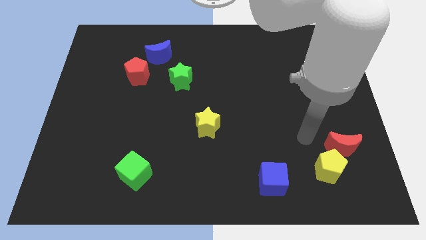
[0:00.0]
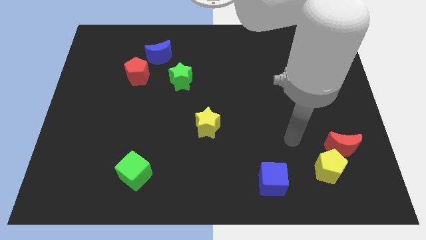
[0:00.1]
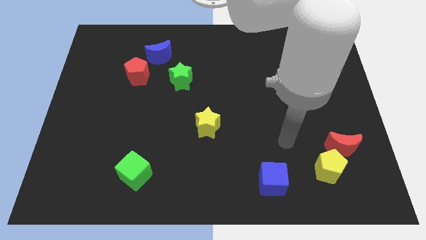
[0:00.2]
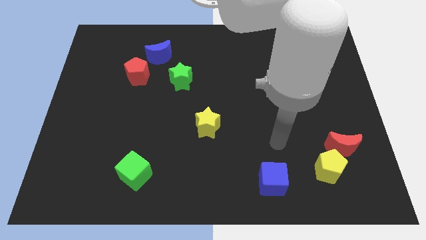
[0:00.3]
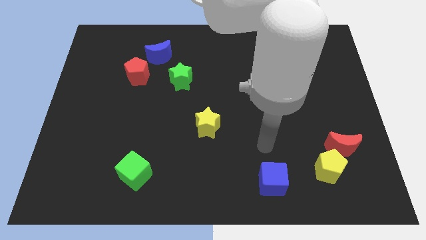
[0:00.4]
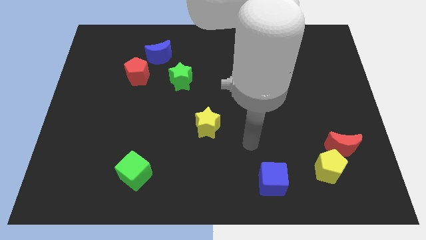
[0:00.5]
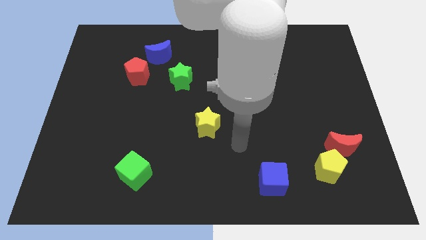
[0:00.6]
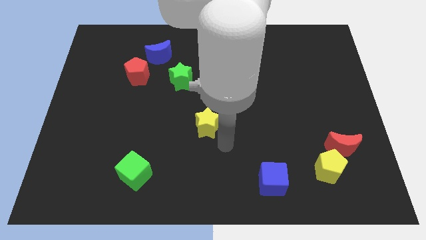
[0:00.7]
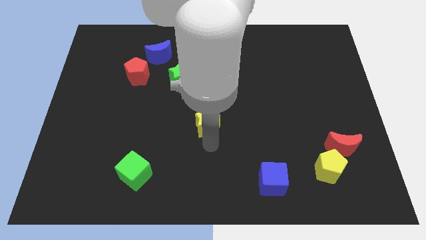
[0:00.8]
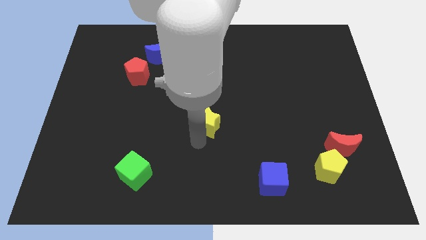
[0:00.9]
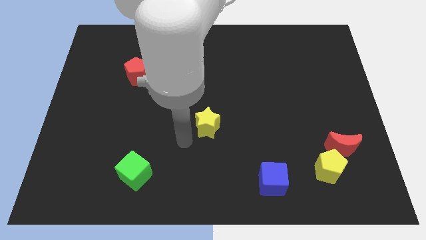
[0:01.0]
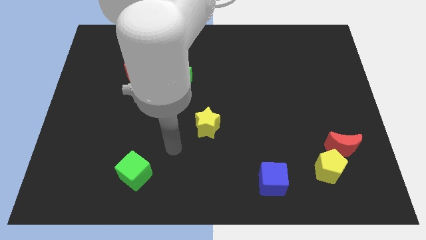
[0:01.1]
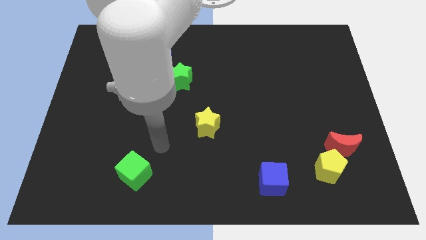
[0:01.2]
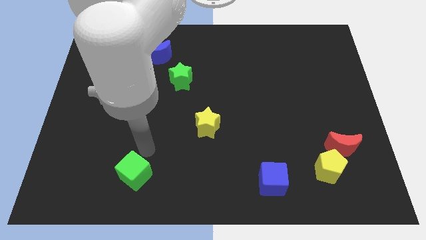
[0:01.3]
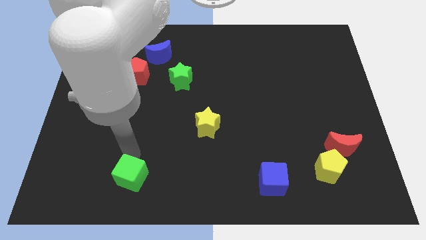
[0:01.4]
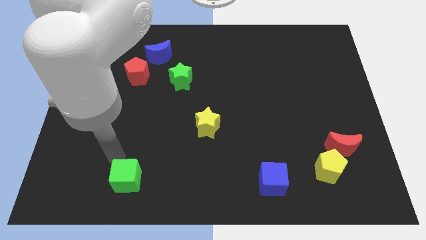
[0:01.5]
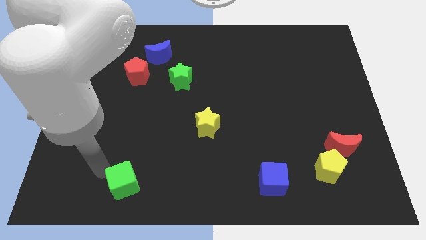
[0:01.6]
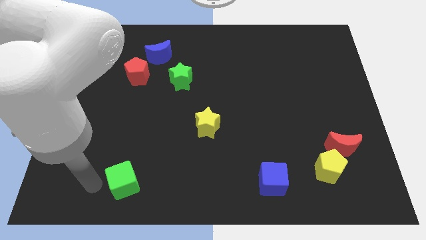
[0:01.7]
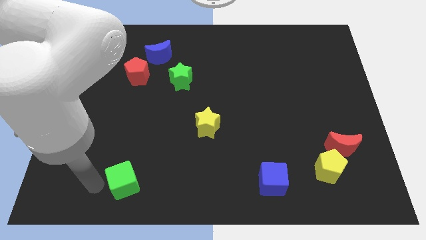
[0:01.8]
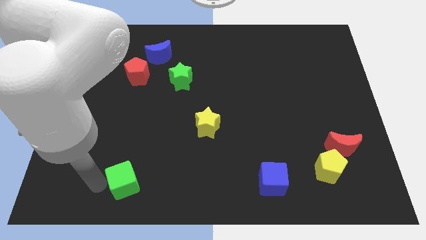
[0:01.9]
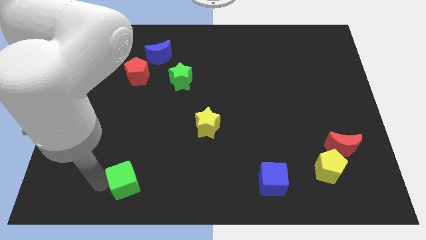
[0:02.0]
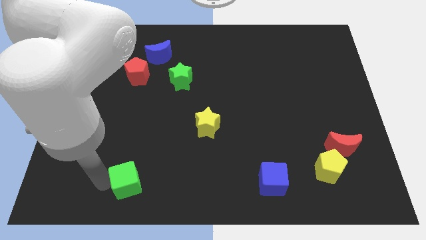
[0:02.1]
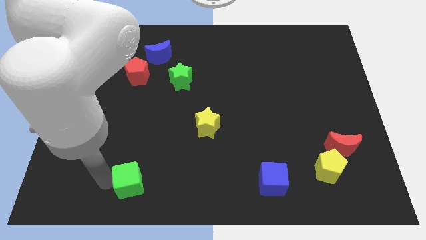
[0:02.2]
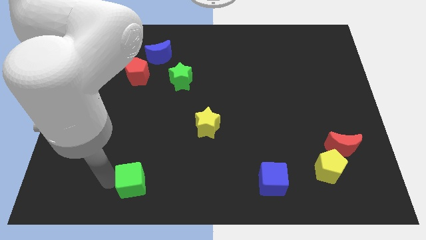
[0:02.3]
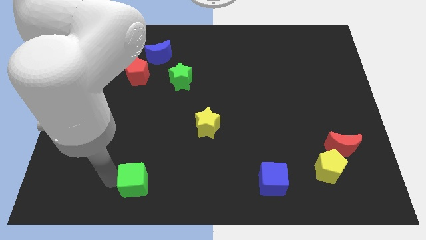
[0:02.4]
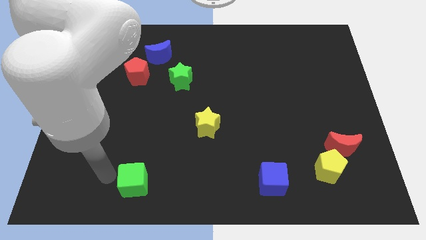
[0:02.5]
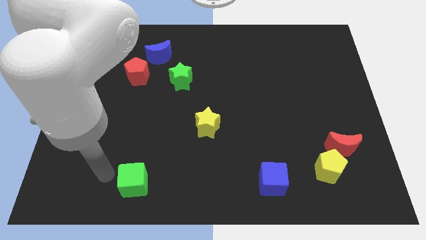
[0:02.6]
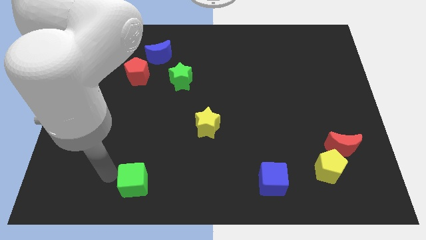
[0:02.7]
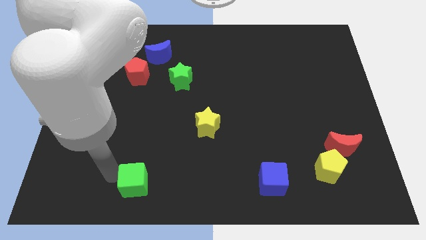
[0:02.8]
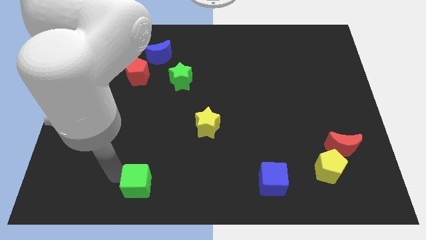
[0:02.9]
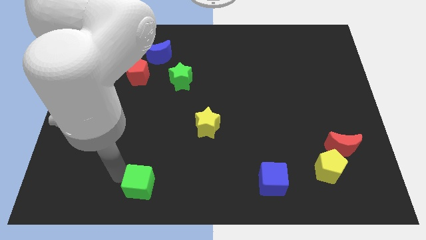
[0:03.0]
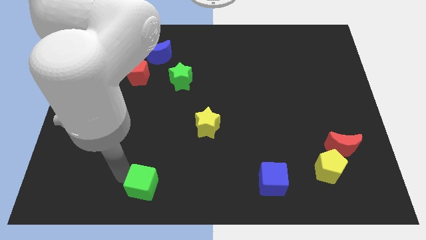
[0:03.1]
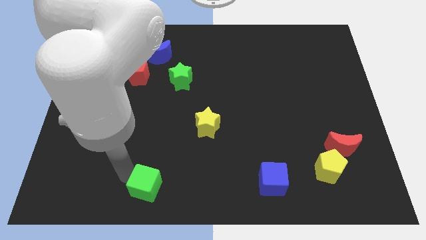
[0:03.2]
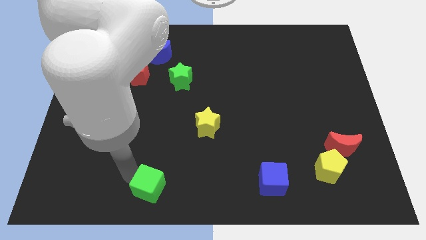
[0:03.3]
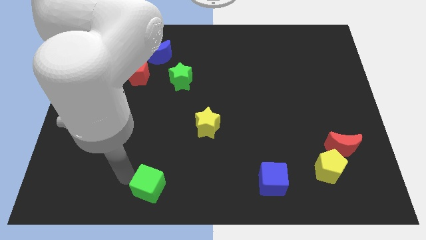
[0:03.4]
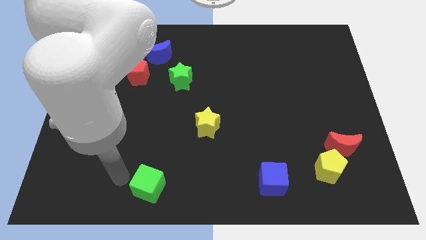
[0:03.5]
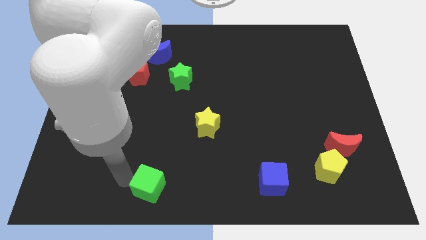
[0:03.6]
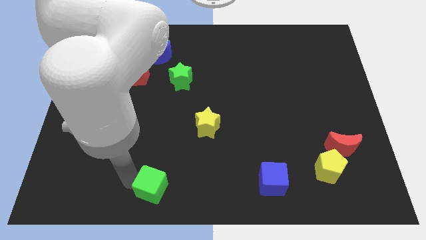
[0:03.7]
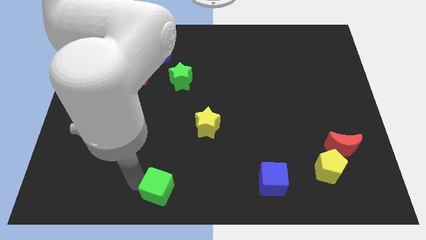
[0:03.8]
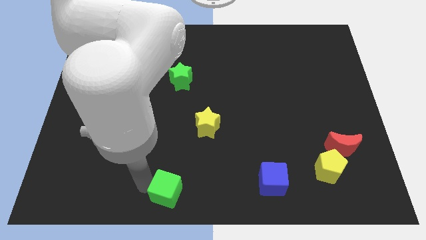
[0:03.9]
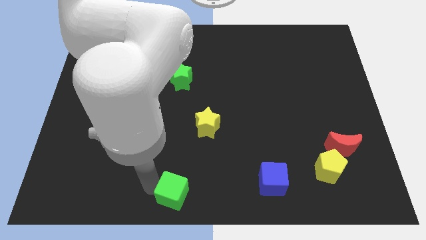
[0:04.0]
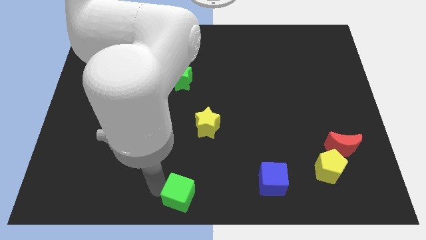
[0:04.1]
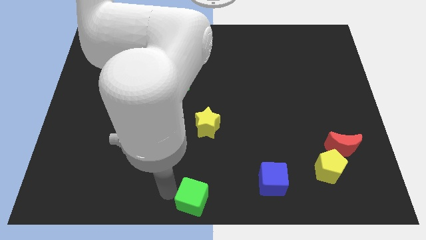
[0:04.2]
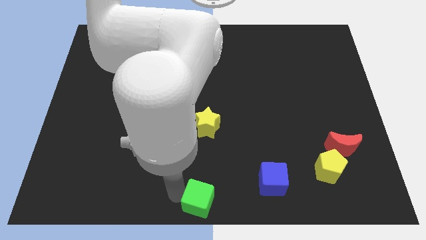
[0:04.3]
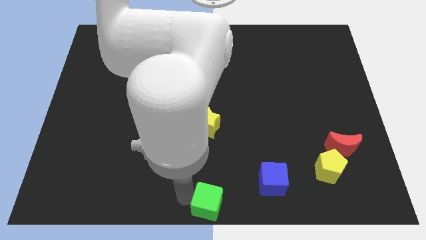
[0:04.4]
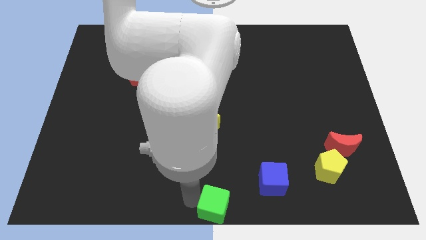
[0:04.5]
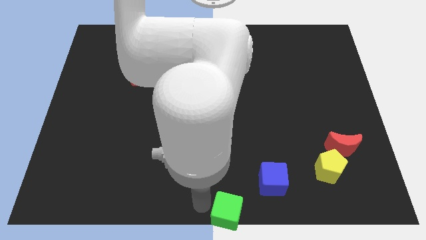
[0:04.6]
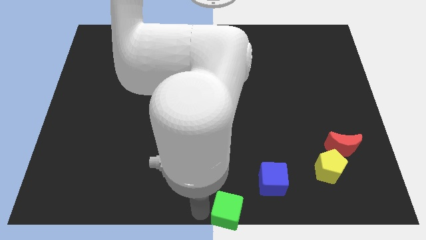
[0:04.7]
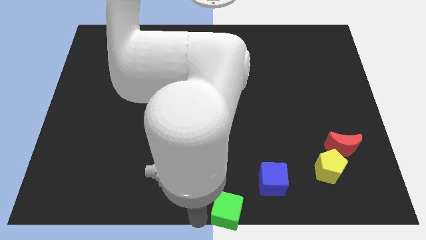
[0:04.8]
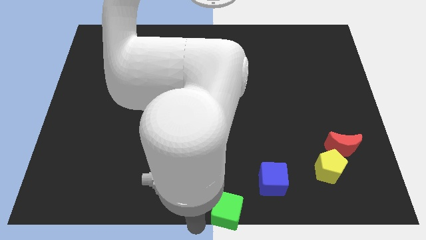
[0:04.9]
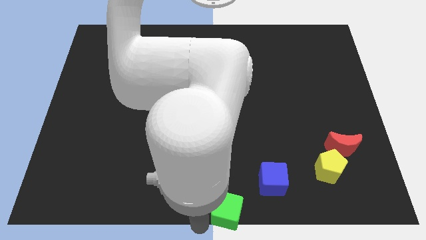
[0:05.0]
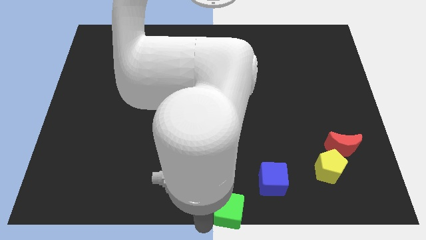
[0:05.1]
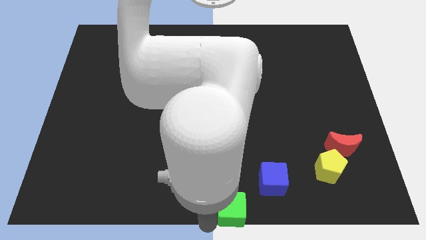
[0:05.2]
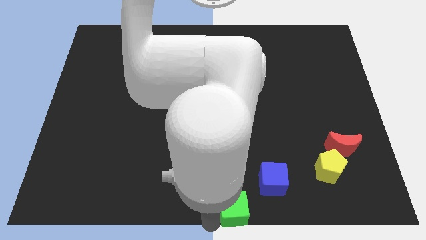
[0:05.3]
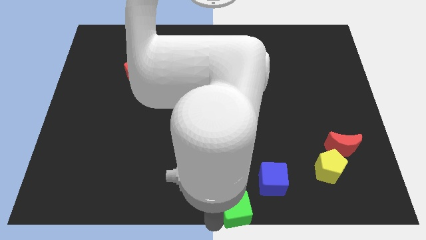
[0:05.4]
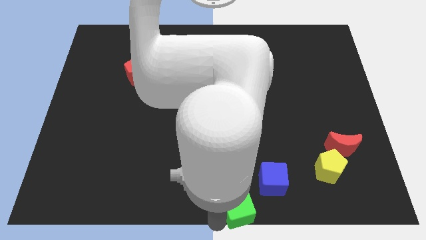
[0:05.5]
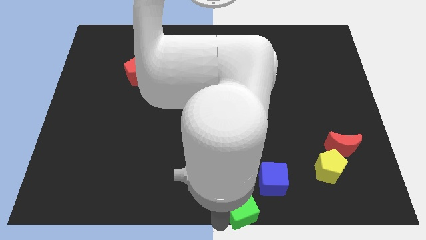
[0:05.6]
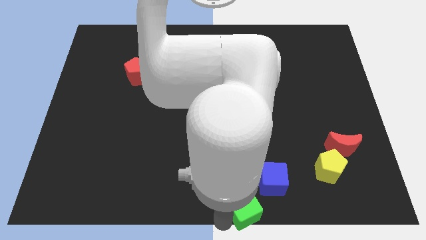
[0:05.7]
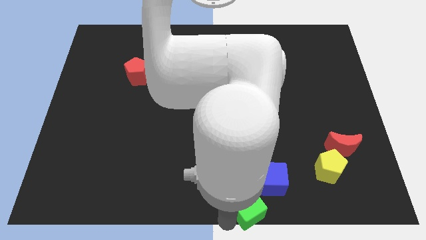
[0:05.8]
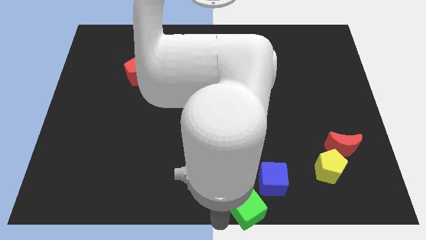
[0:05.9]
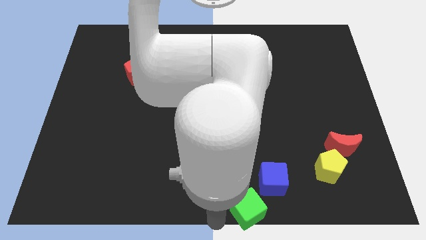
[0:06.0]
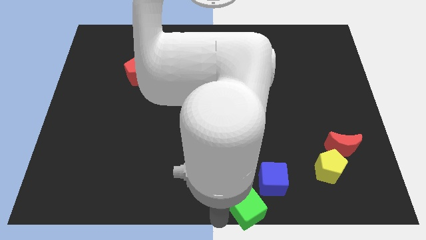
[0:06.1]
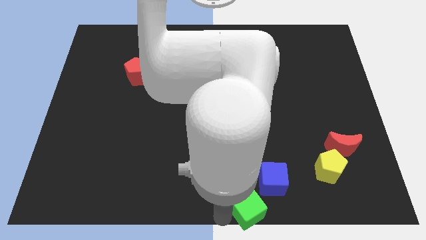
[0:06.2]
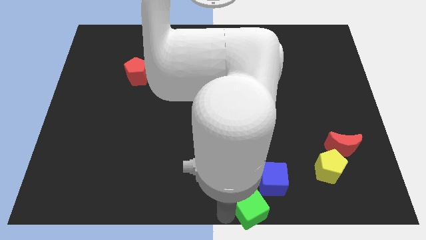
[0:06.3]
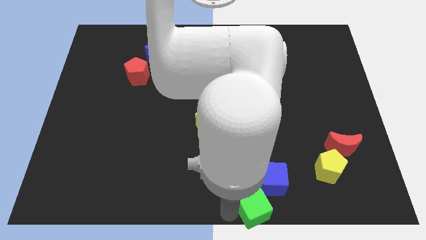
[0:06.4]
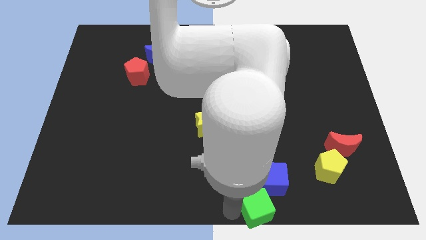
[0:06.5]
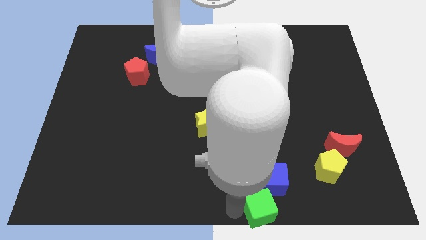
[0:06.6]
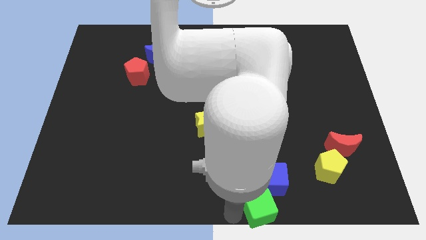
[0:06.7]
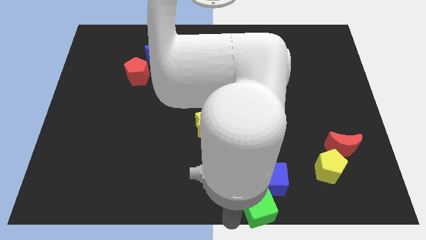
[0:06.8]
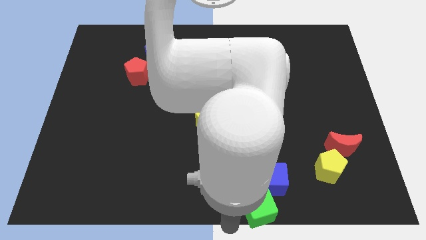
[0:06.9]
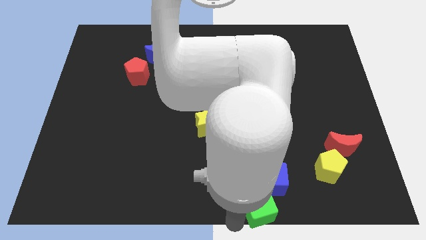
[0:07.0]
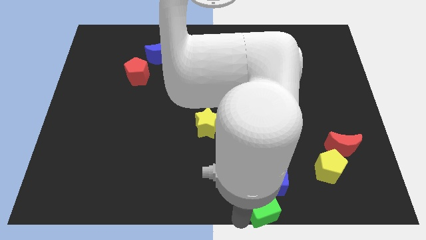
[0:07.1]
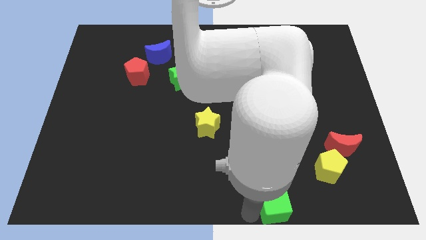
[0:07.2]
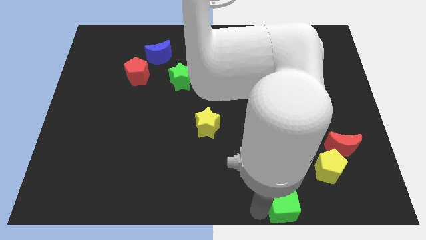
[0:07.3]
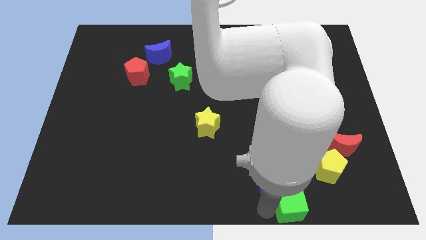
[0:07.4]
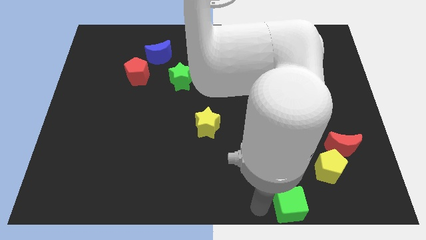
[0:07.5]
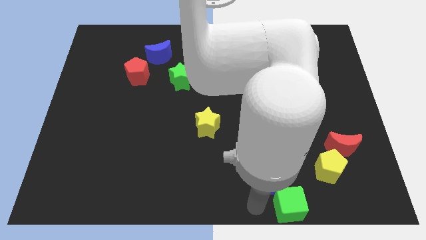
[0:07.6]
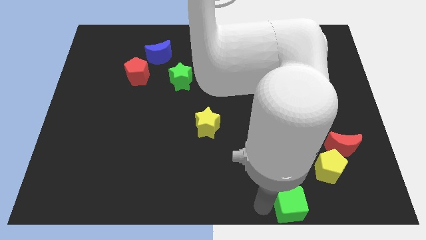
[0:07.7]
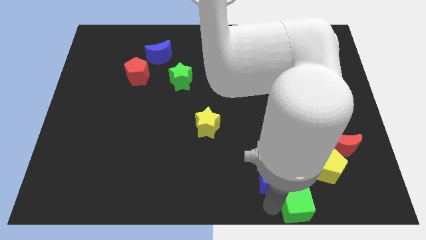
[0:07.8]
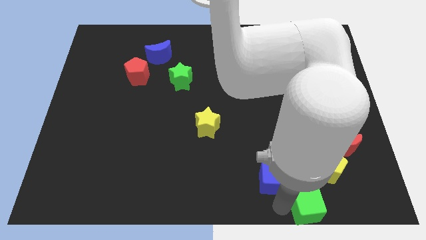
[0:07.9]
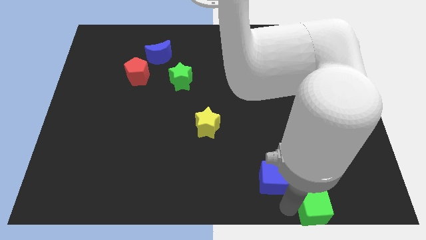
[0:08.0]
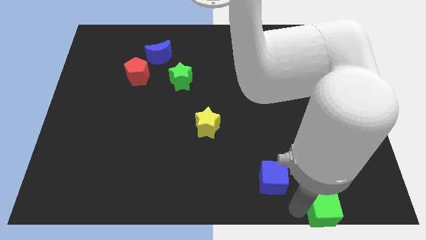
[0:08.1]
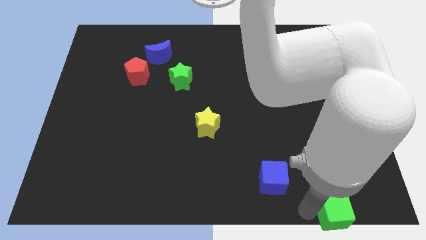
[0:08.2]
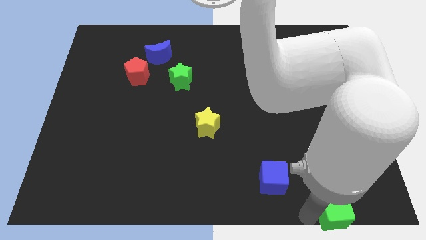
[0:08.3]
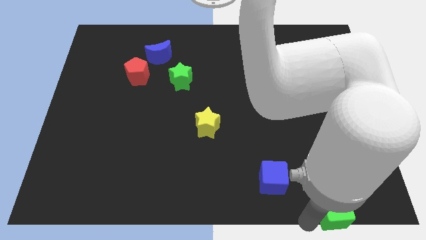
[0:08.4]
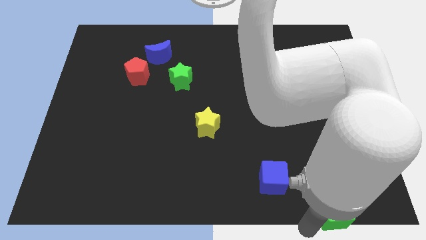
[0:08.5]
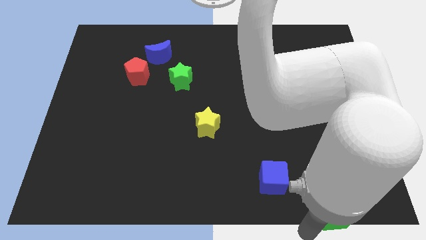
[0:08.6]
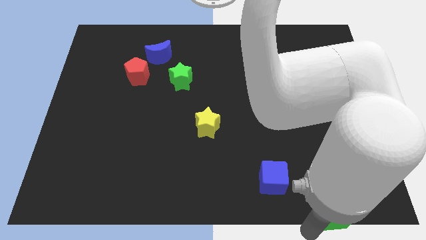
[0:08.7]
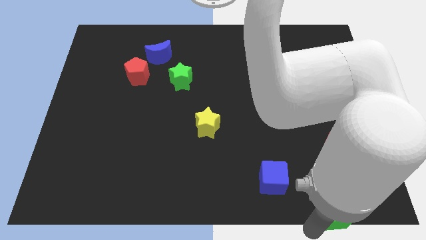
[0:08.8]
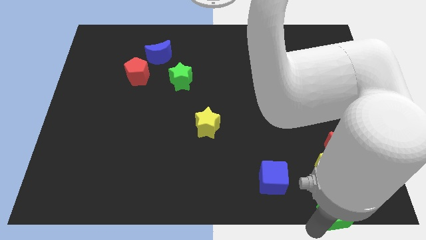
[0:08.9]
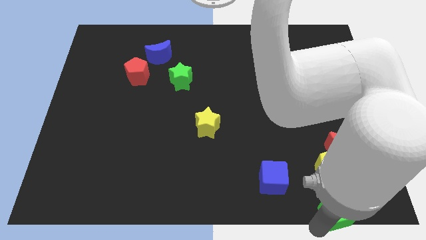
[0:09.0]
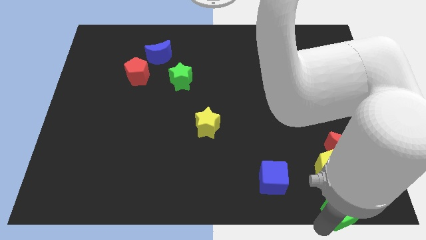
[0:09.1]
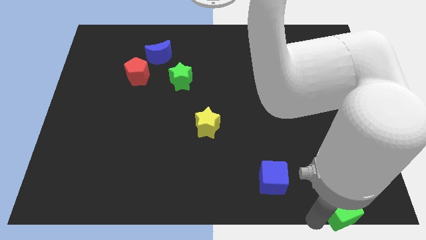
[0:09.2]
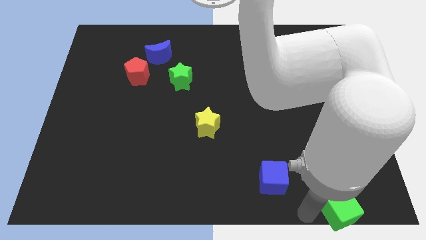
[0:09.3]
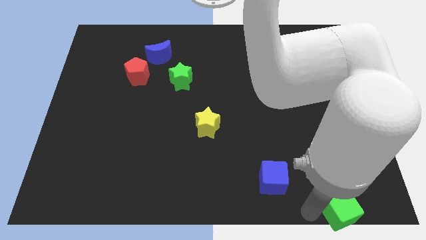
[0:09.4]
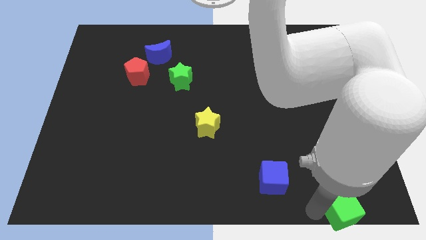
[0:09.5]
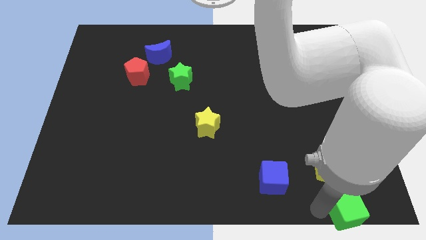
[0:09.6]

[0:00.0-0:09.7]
move the green cube to the bottom right of the board
